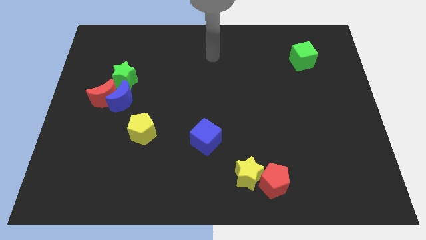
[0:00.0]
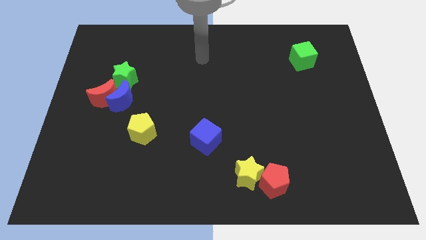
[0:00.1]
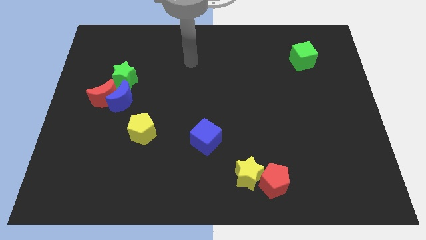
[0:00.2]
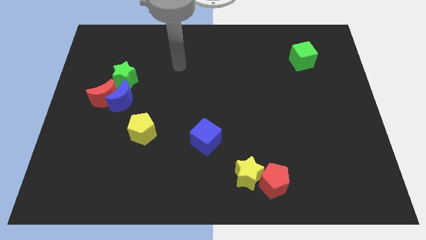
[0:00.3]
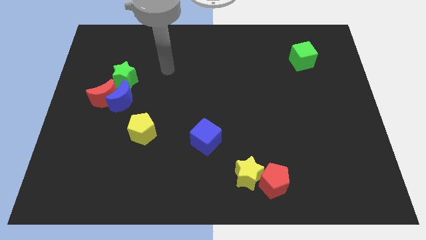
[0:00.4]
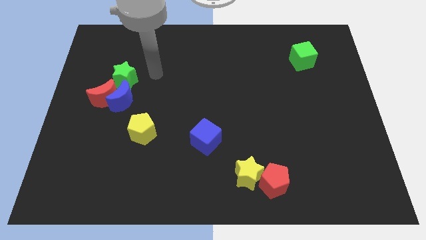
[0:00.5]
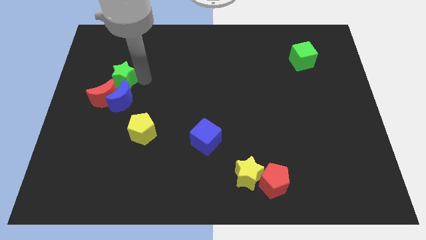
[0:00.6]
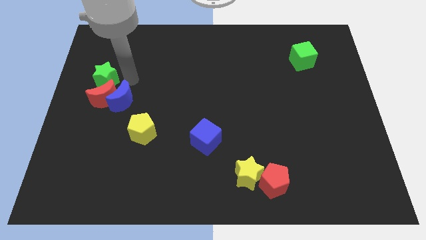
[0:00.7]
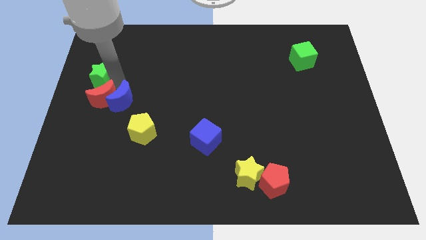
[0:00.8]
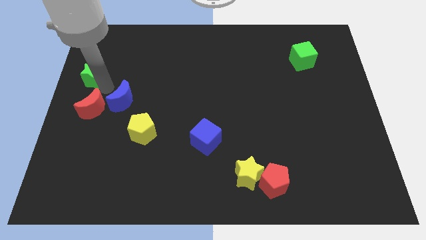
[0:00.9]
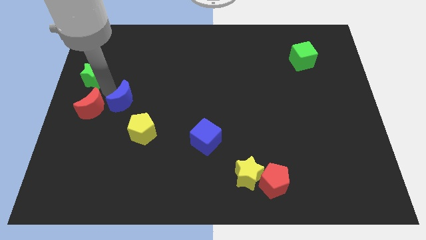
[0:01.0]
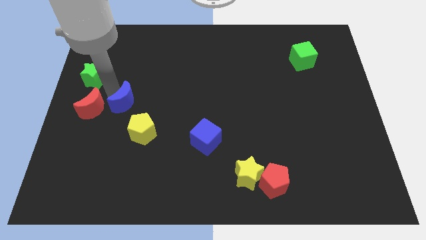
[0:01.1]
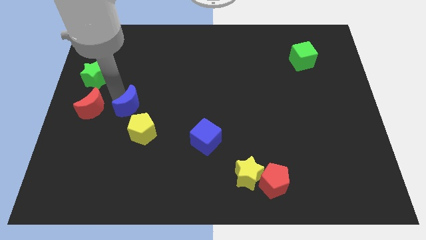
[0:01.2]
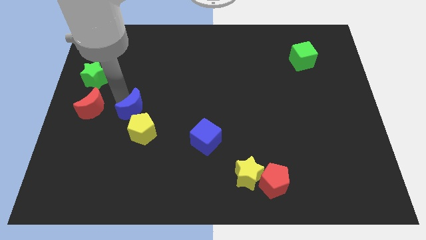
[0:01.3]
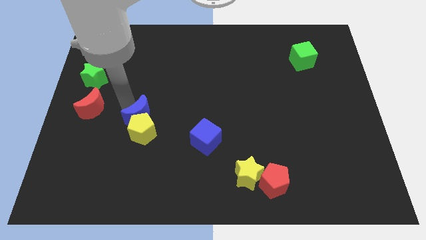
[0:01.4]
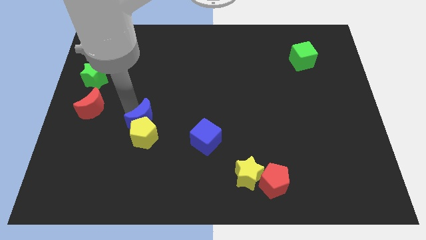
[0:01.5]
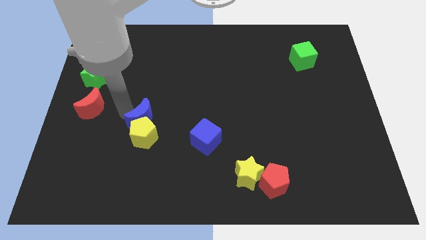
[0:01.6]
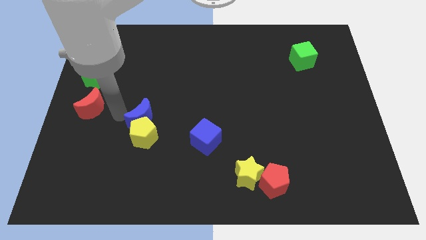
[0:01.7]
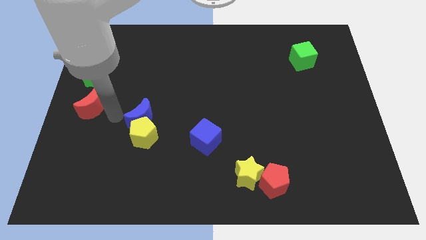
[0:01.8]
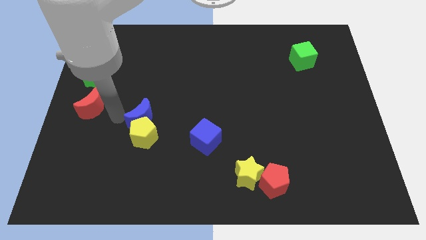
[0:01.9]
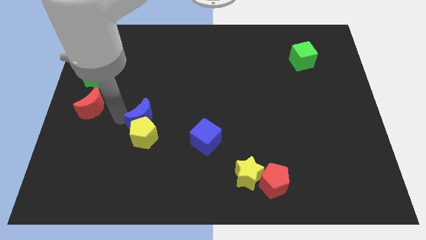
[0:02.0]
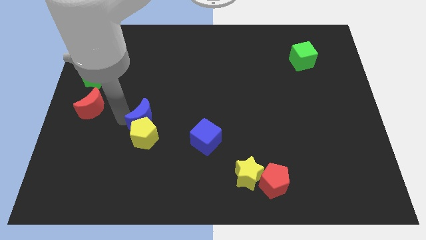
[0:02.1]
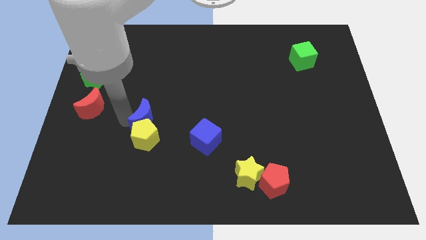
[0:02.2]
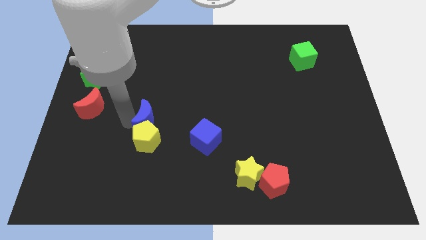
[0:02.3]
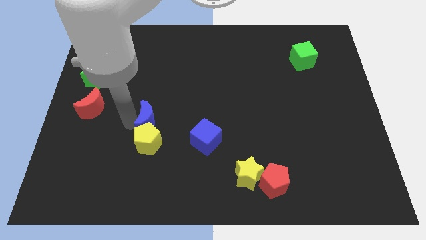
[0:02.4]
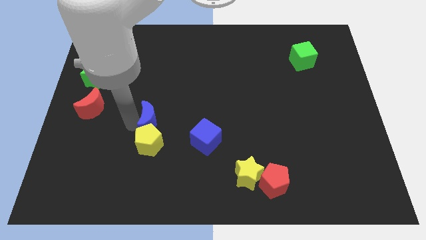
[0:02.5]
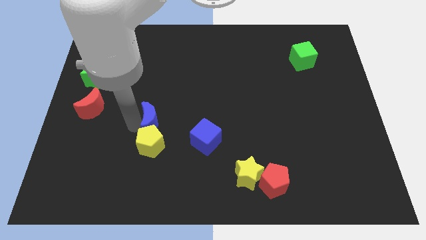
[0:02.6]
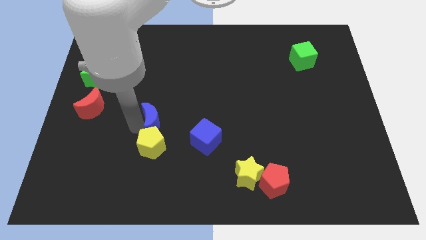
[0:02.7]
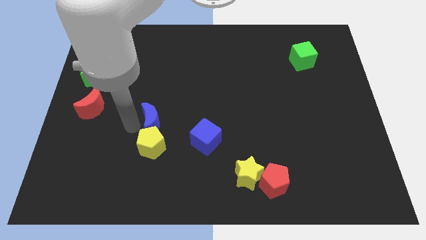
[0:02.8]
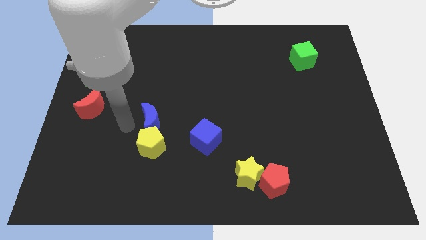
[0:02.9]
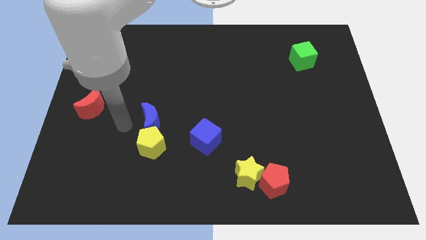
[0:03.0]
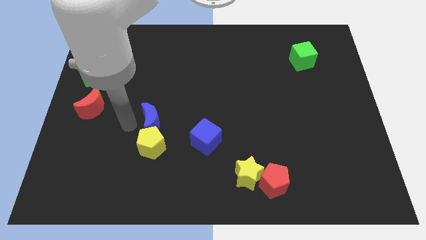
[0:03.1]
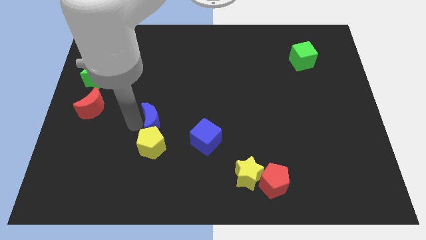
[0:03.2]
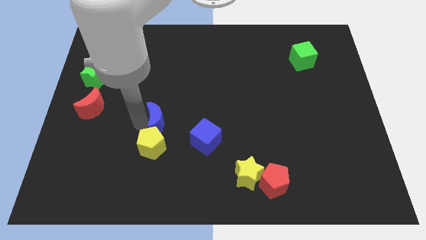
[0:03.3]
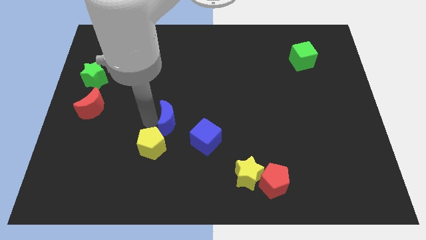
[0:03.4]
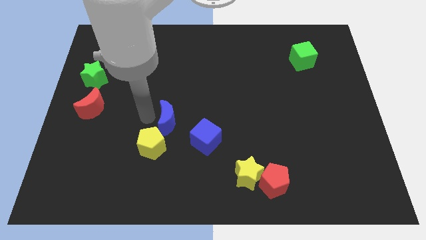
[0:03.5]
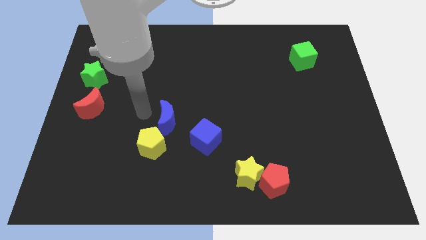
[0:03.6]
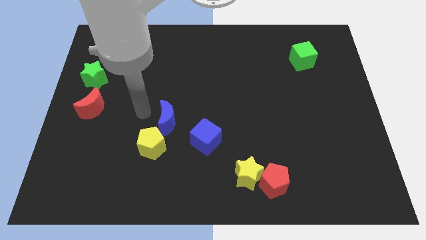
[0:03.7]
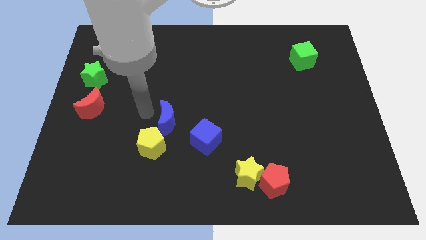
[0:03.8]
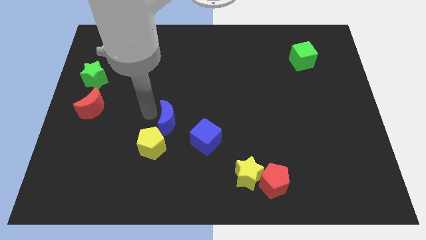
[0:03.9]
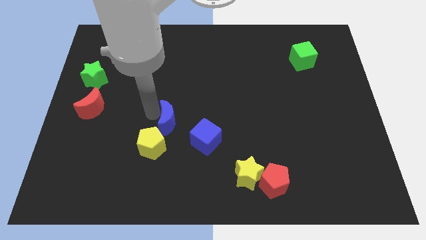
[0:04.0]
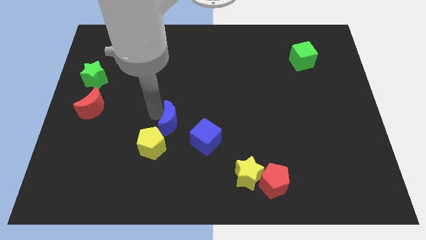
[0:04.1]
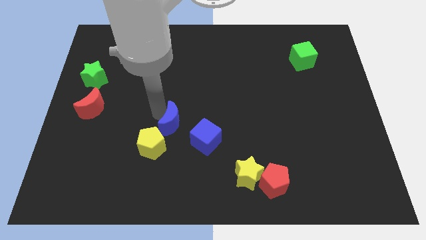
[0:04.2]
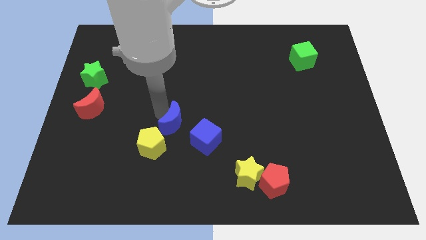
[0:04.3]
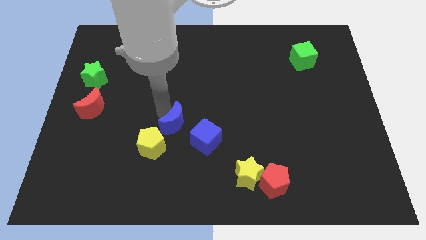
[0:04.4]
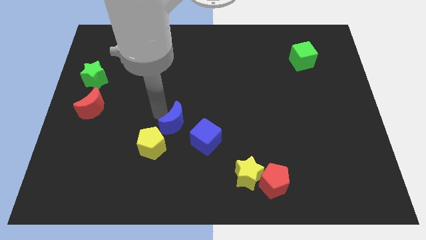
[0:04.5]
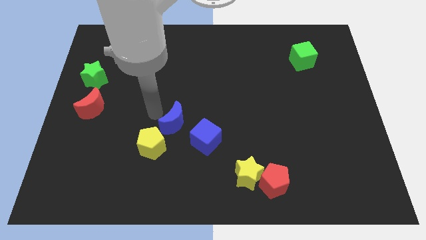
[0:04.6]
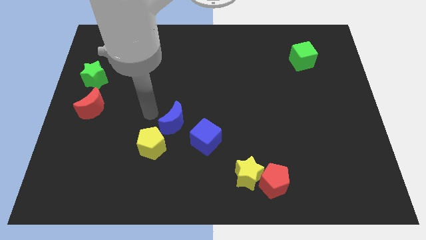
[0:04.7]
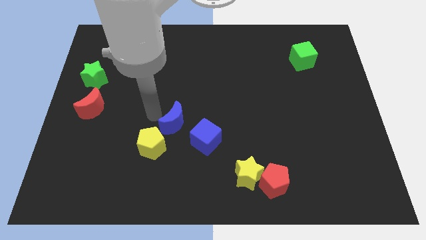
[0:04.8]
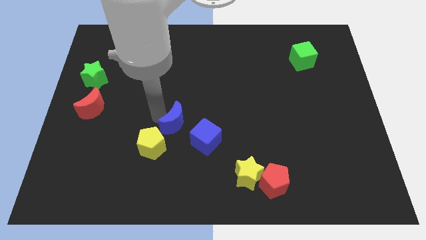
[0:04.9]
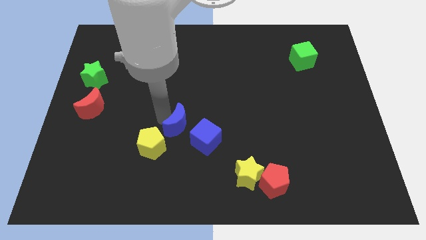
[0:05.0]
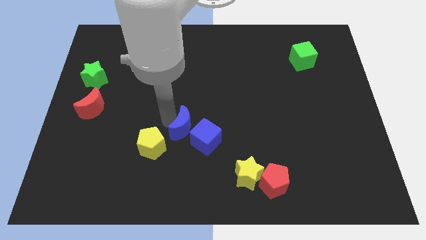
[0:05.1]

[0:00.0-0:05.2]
move the blue moon next to the blue cube

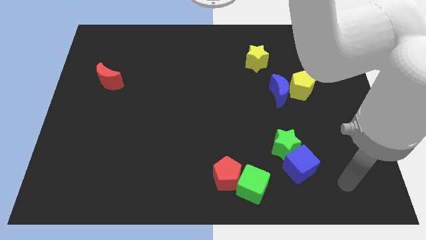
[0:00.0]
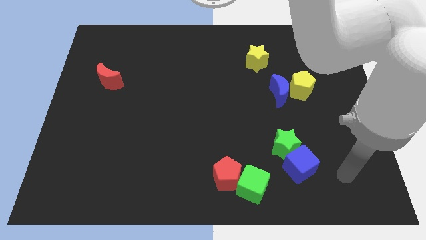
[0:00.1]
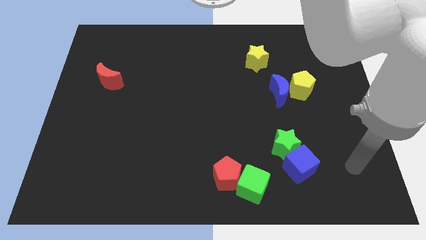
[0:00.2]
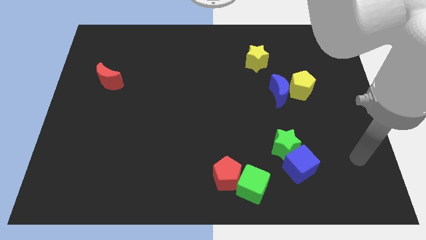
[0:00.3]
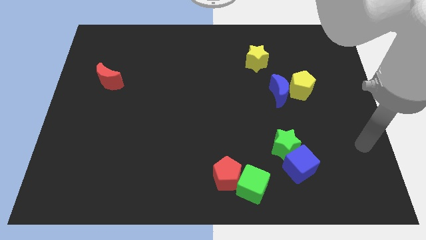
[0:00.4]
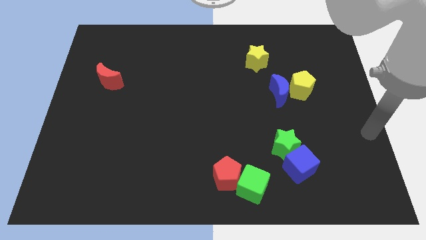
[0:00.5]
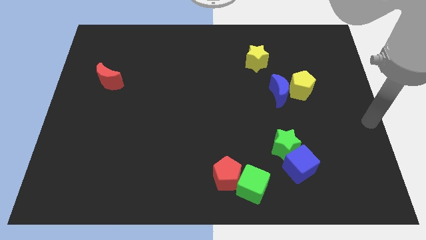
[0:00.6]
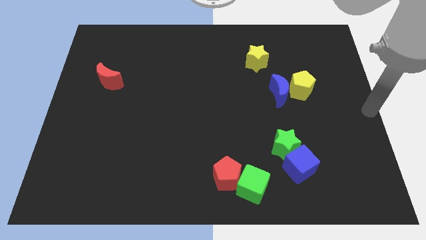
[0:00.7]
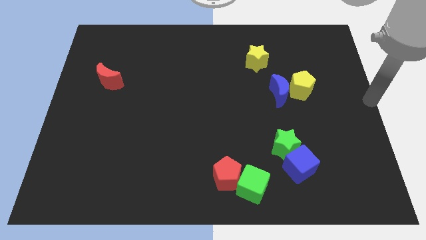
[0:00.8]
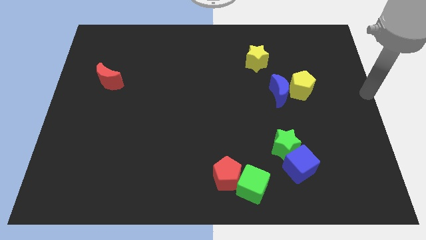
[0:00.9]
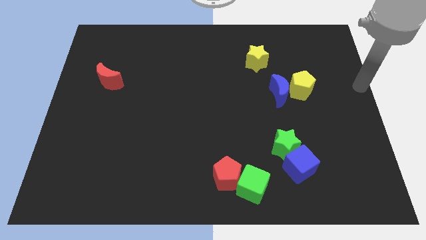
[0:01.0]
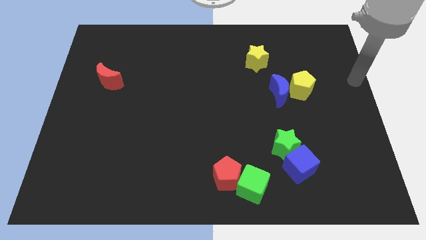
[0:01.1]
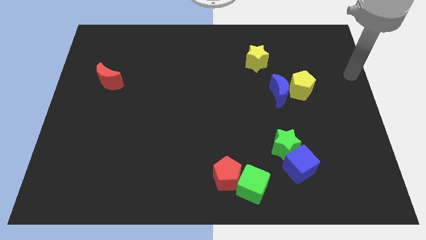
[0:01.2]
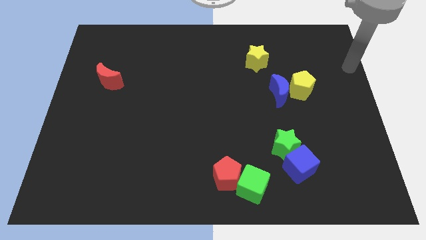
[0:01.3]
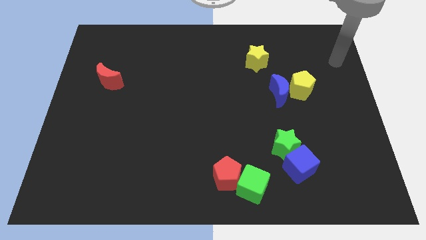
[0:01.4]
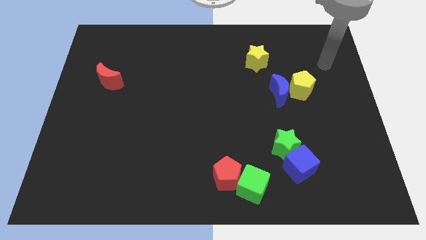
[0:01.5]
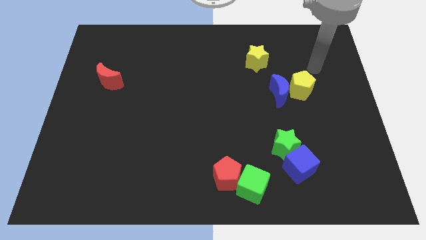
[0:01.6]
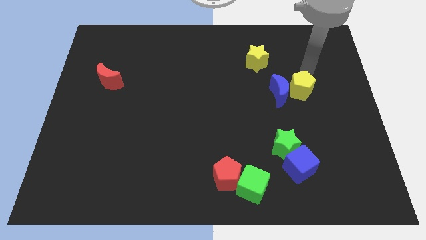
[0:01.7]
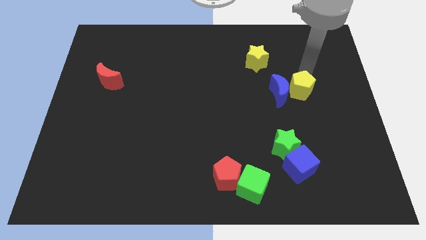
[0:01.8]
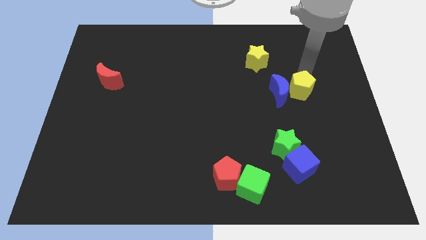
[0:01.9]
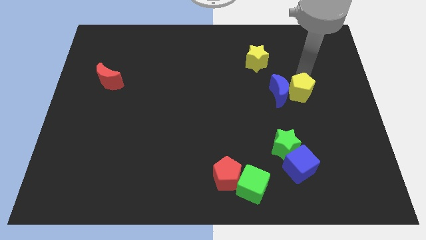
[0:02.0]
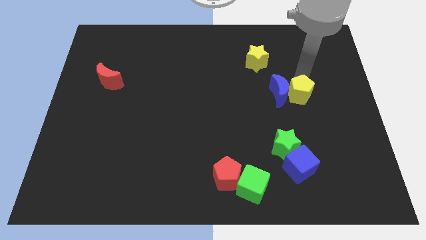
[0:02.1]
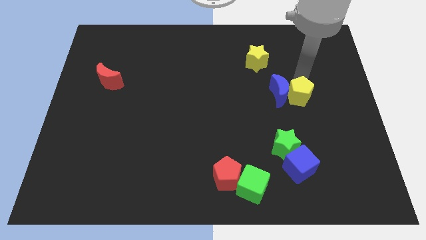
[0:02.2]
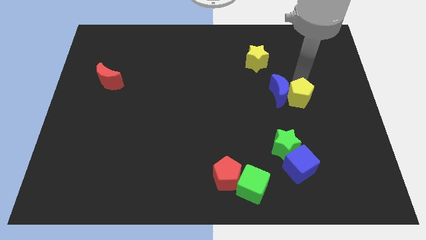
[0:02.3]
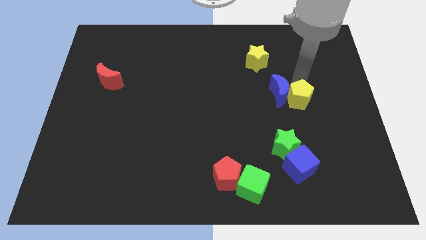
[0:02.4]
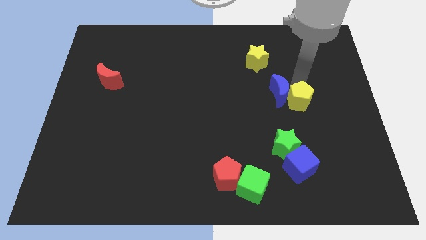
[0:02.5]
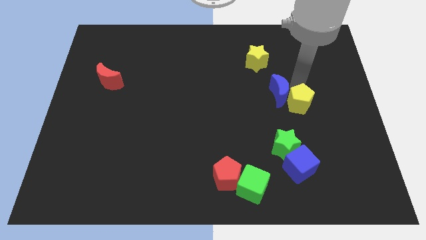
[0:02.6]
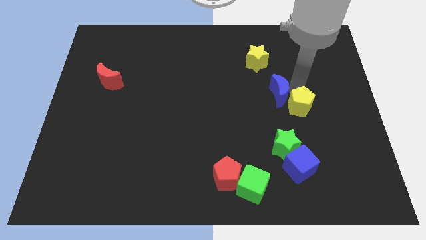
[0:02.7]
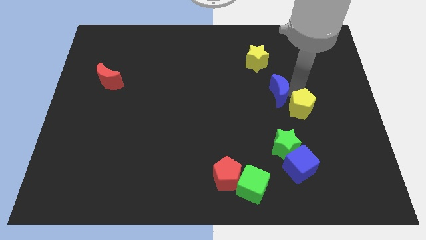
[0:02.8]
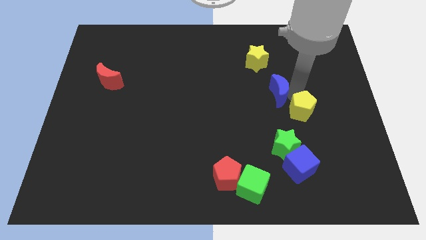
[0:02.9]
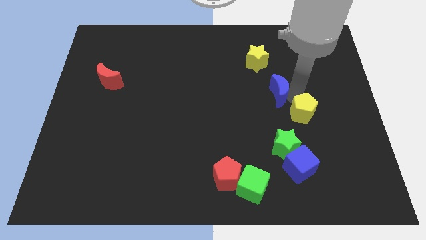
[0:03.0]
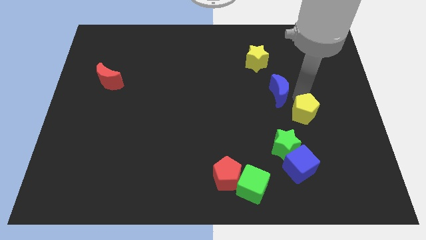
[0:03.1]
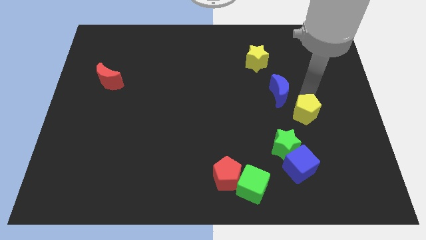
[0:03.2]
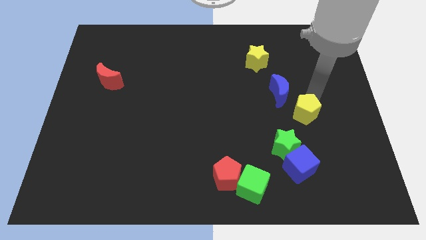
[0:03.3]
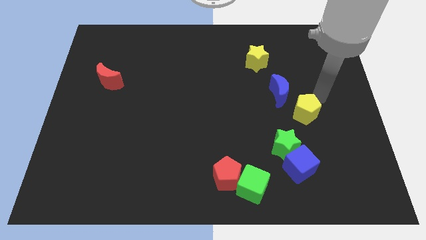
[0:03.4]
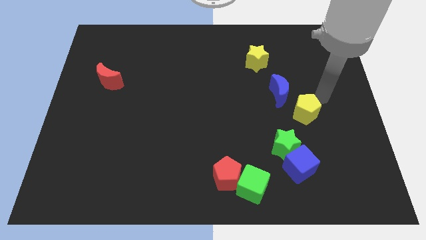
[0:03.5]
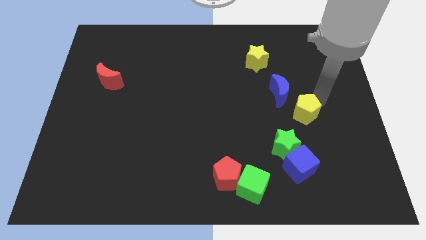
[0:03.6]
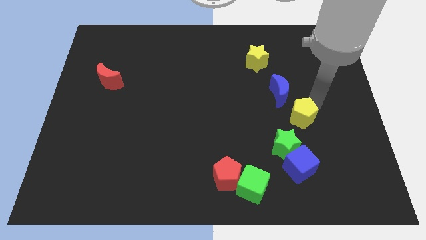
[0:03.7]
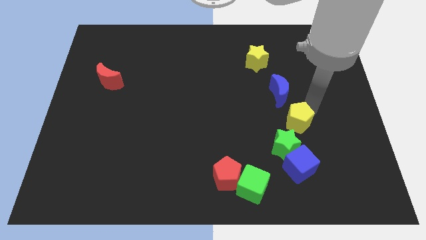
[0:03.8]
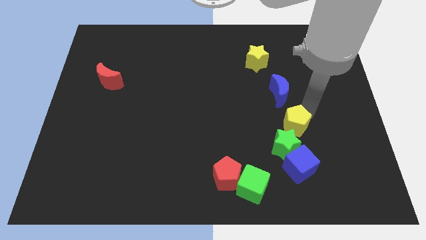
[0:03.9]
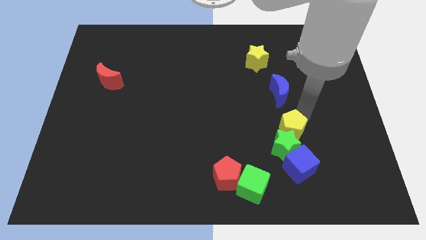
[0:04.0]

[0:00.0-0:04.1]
put the yellow pentagon towards the green star
